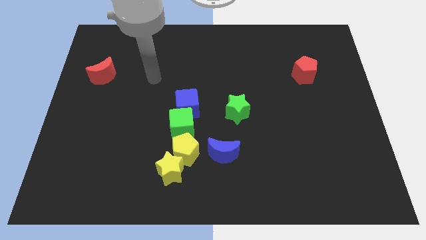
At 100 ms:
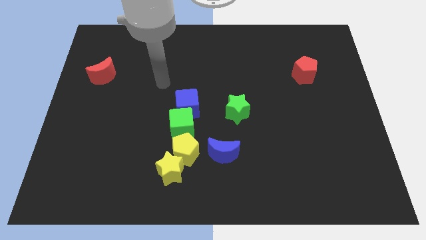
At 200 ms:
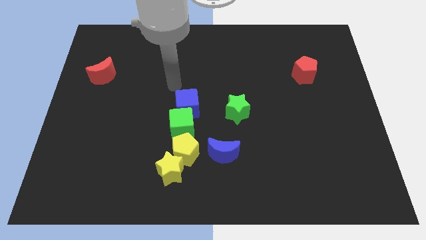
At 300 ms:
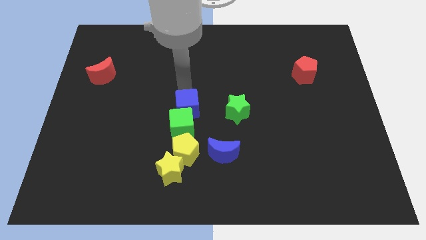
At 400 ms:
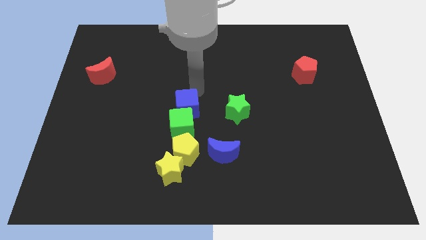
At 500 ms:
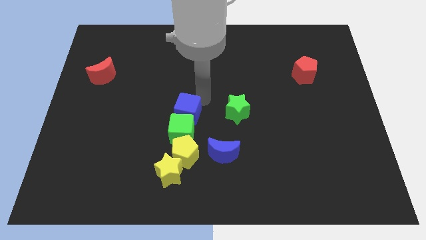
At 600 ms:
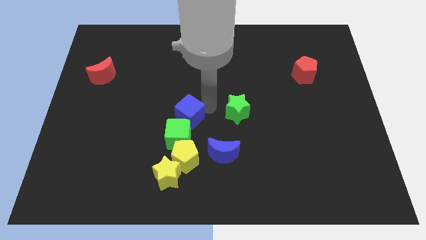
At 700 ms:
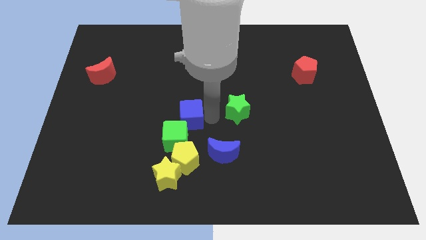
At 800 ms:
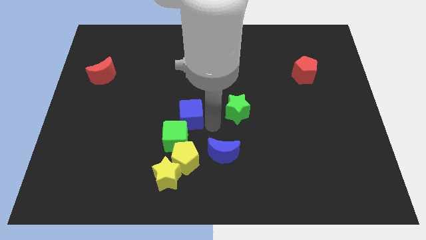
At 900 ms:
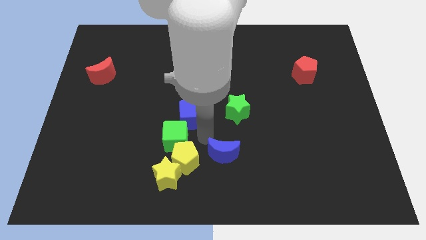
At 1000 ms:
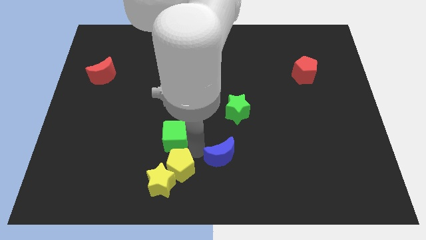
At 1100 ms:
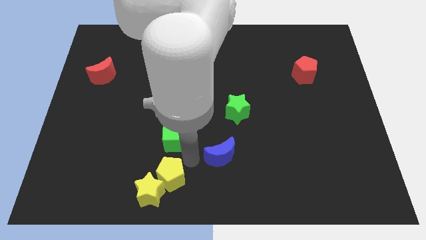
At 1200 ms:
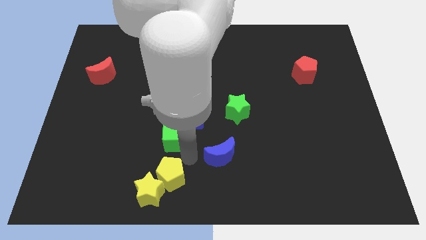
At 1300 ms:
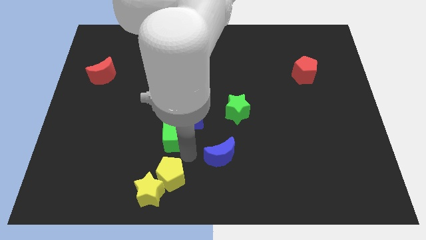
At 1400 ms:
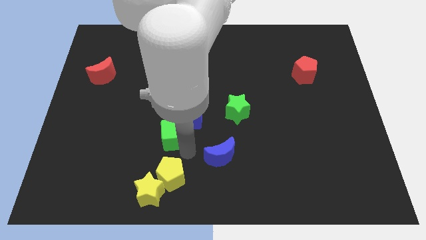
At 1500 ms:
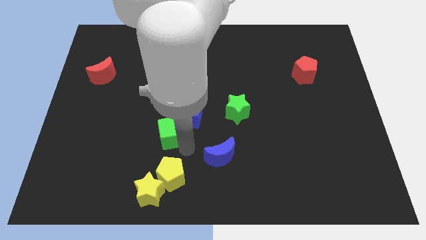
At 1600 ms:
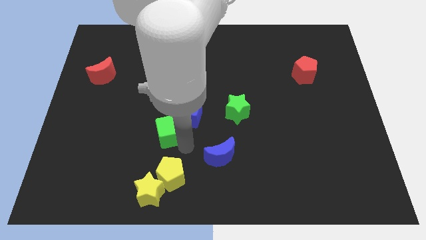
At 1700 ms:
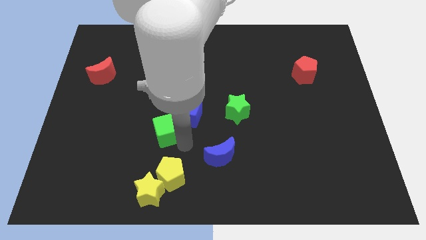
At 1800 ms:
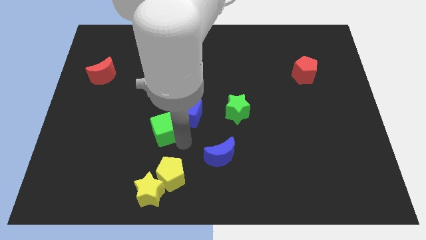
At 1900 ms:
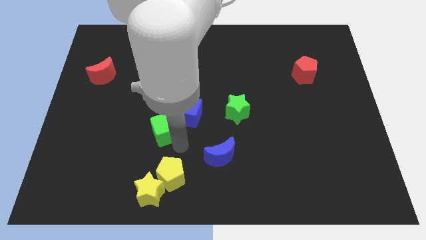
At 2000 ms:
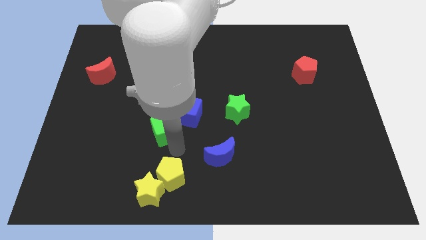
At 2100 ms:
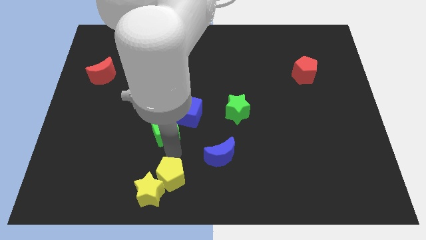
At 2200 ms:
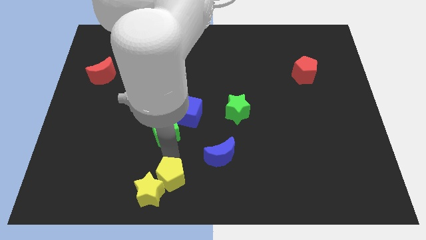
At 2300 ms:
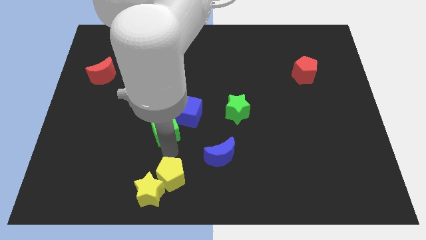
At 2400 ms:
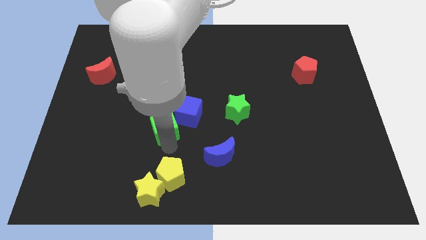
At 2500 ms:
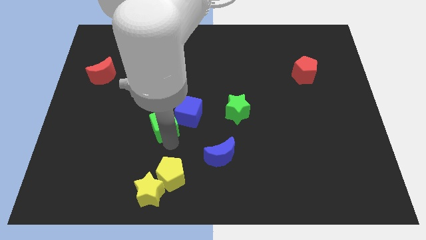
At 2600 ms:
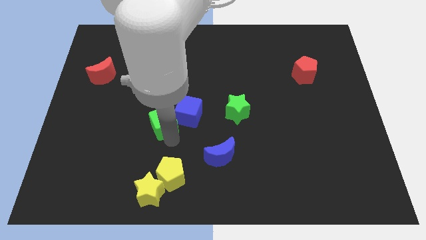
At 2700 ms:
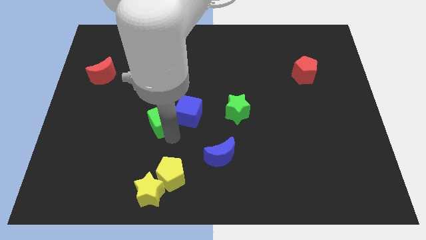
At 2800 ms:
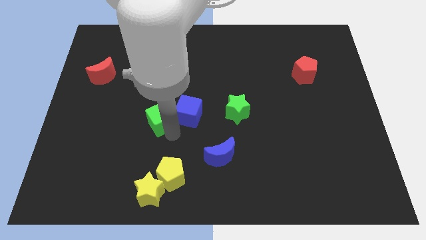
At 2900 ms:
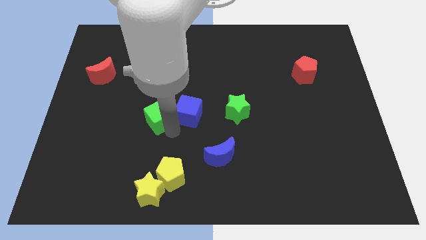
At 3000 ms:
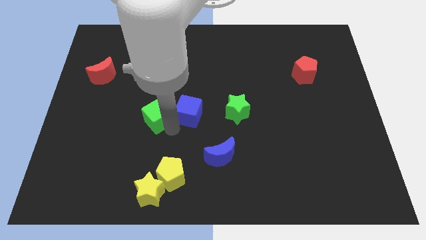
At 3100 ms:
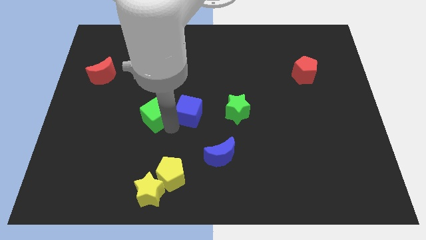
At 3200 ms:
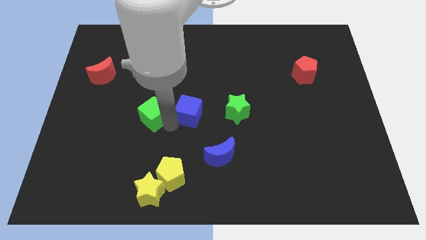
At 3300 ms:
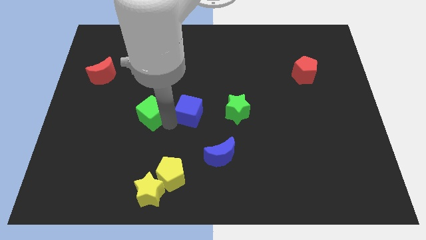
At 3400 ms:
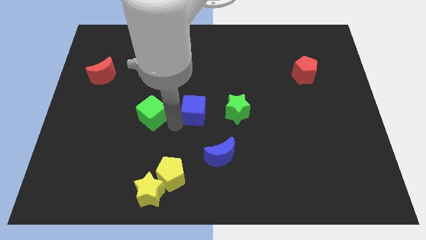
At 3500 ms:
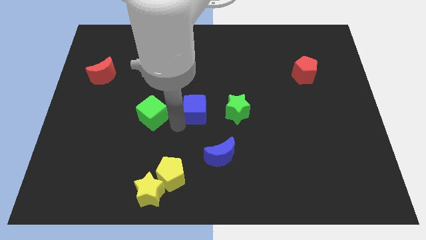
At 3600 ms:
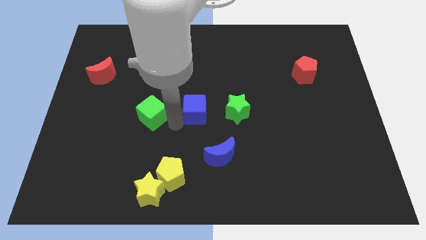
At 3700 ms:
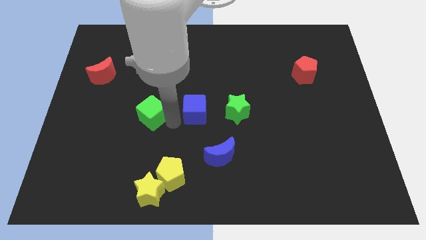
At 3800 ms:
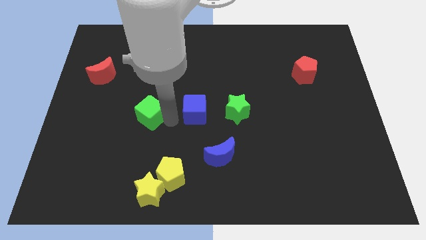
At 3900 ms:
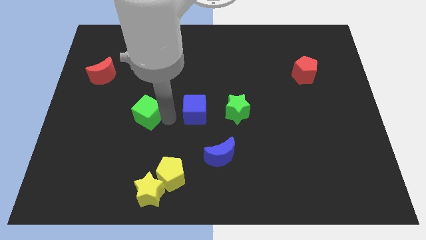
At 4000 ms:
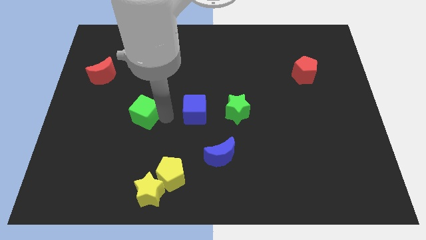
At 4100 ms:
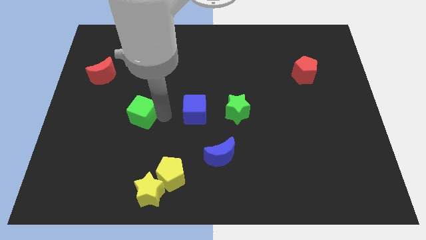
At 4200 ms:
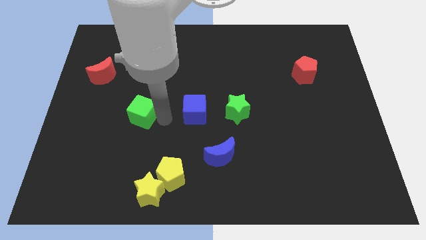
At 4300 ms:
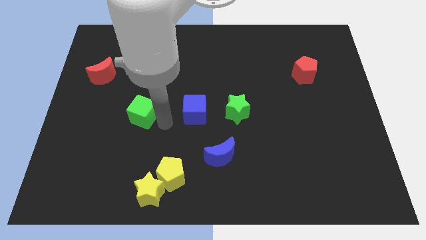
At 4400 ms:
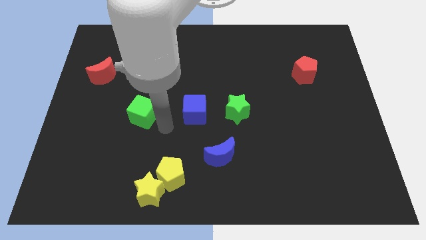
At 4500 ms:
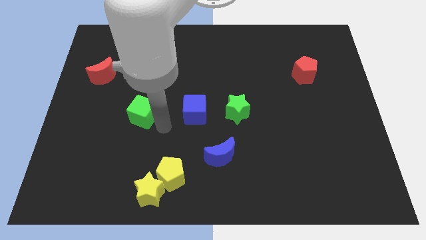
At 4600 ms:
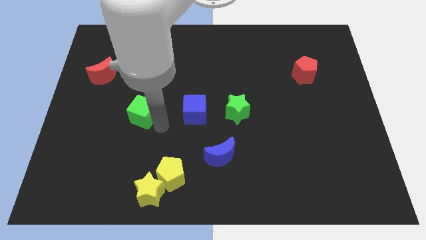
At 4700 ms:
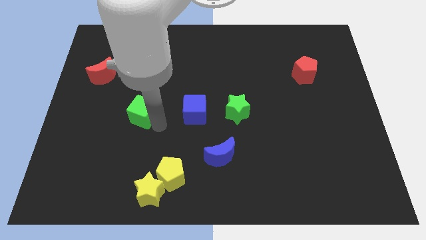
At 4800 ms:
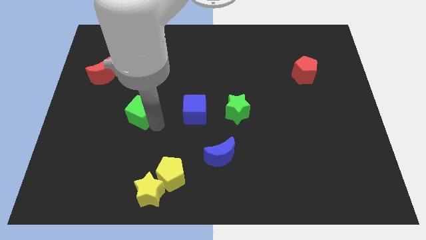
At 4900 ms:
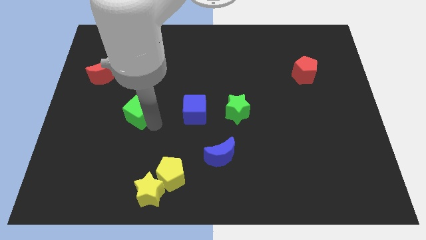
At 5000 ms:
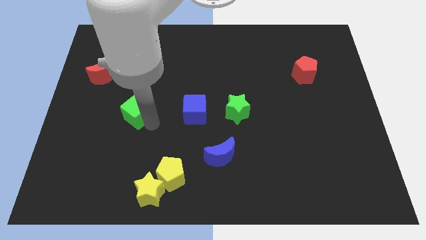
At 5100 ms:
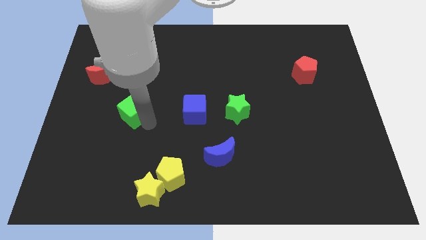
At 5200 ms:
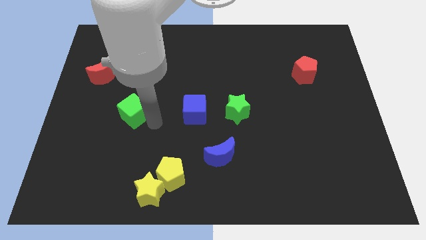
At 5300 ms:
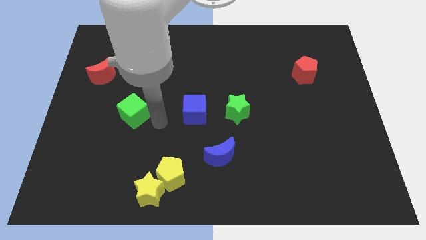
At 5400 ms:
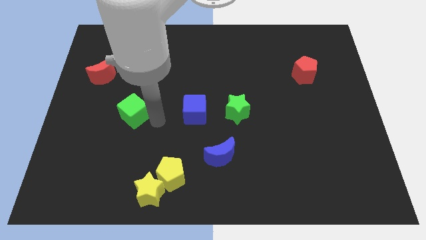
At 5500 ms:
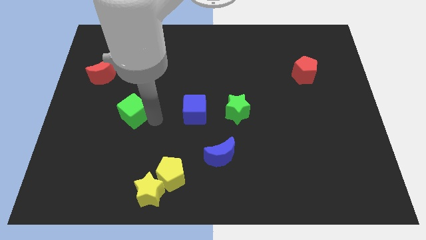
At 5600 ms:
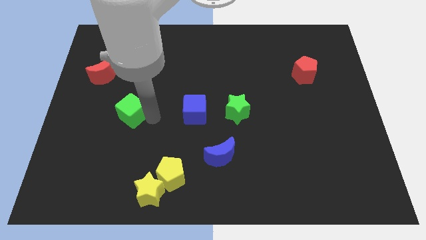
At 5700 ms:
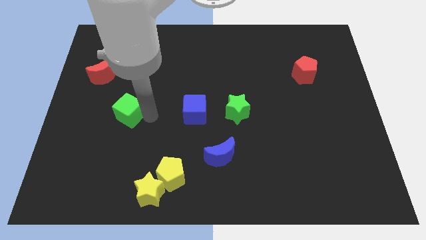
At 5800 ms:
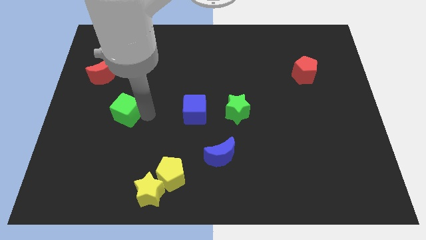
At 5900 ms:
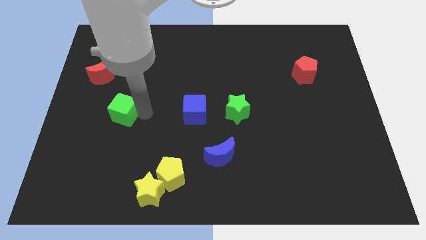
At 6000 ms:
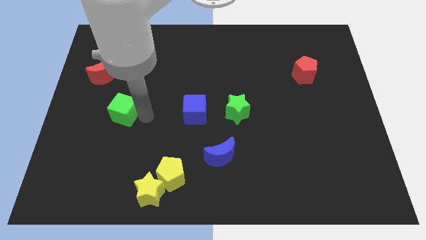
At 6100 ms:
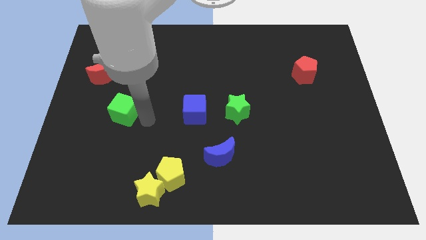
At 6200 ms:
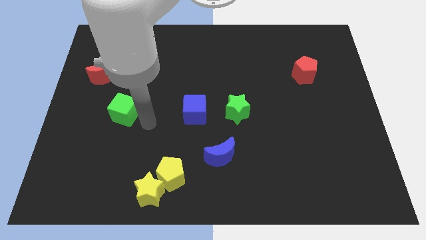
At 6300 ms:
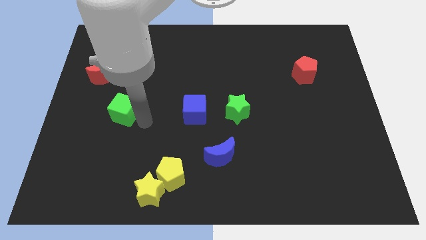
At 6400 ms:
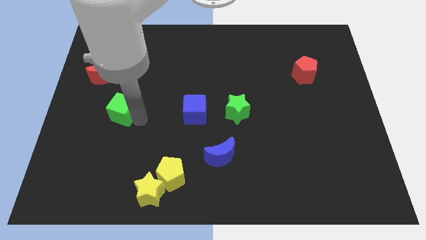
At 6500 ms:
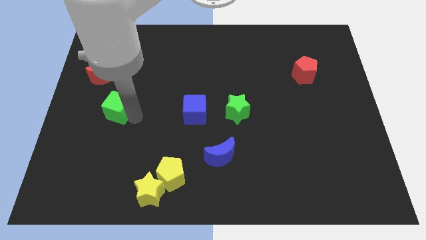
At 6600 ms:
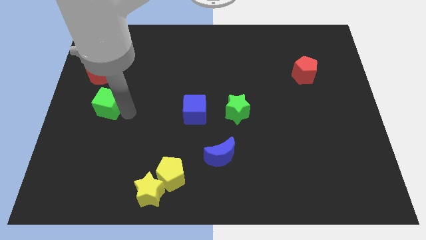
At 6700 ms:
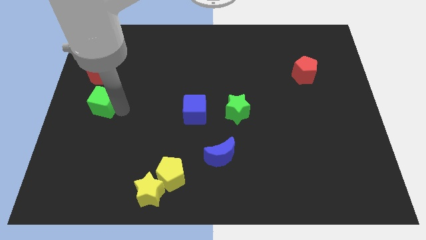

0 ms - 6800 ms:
put the green cube to the left side of the board
